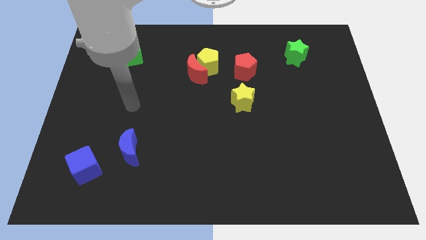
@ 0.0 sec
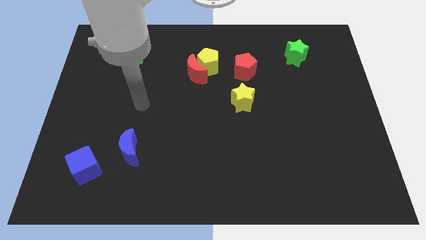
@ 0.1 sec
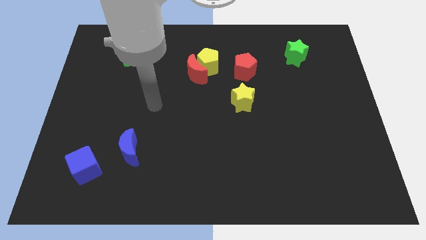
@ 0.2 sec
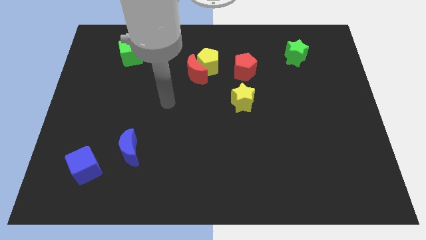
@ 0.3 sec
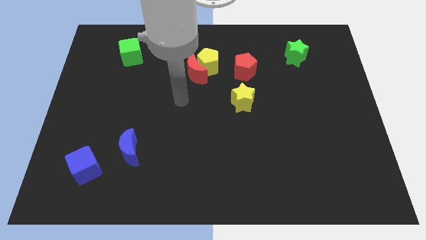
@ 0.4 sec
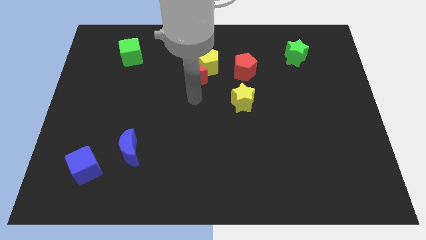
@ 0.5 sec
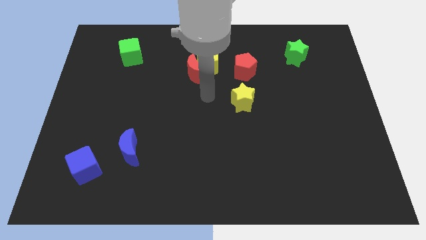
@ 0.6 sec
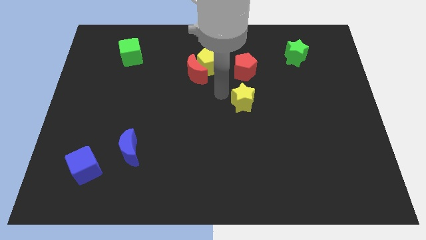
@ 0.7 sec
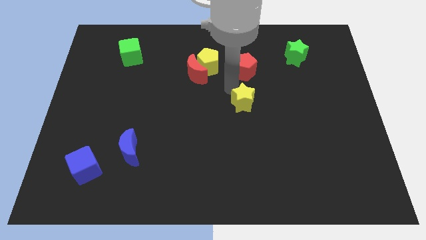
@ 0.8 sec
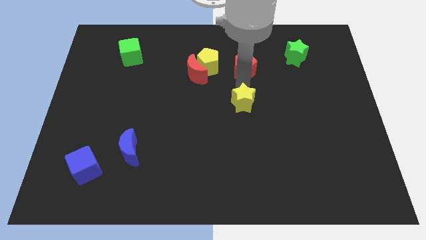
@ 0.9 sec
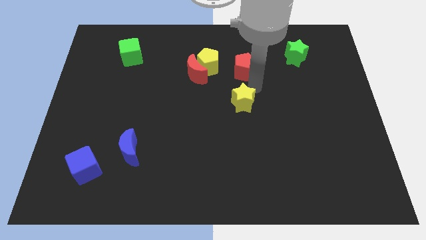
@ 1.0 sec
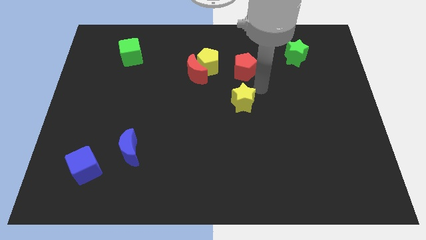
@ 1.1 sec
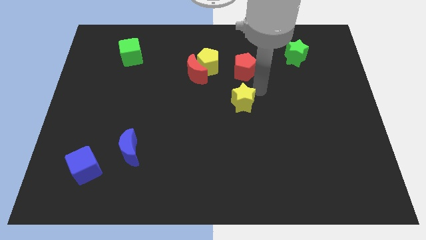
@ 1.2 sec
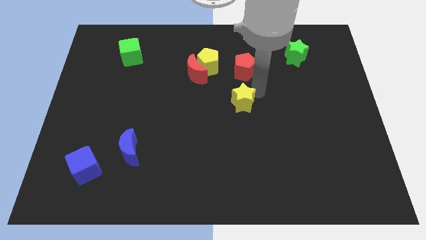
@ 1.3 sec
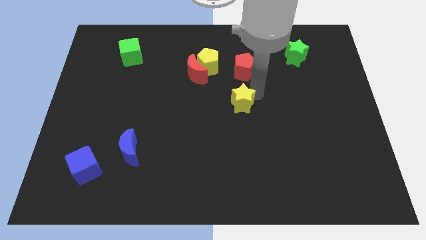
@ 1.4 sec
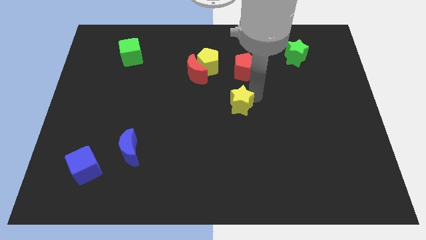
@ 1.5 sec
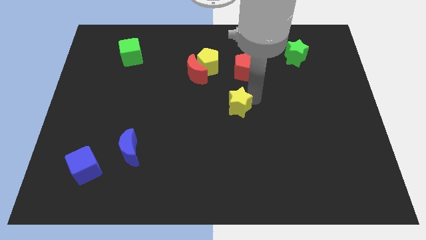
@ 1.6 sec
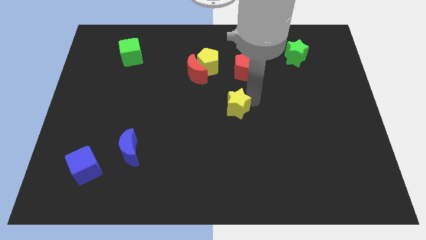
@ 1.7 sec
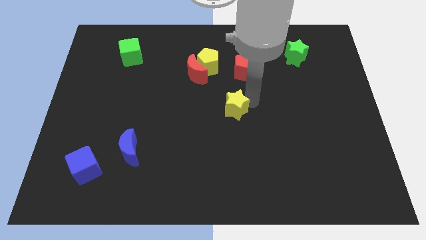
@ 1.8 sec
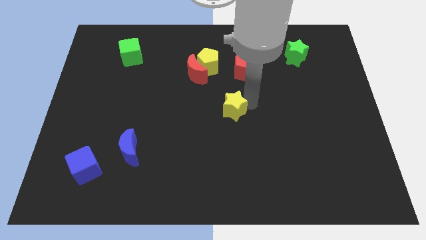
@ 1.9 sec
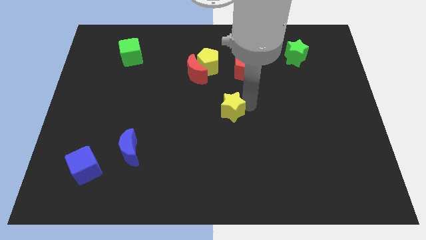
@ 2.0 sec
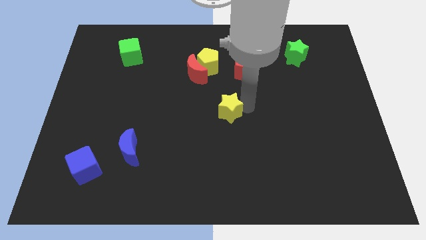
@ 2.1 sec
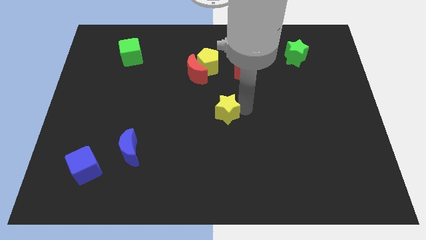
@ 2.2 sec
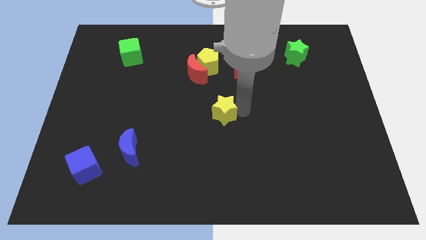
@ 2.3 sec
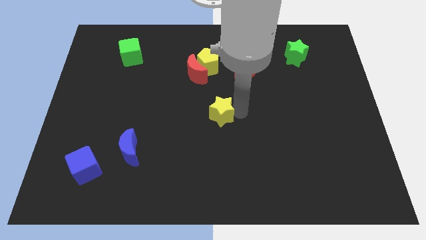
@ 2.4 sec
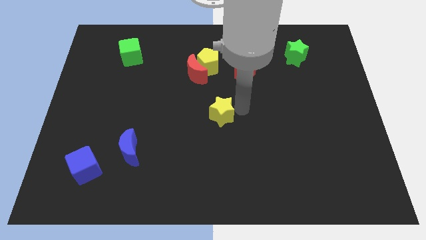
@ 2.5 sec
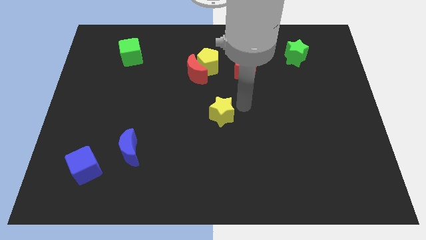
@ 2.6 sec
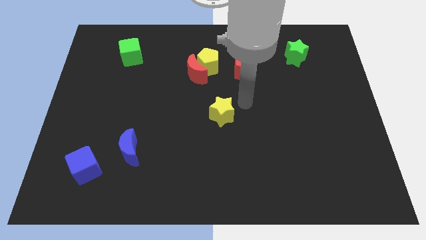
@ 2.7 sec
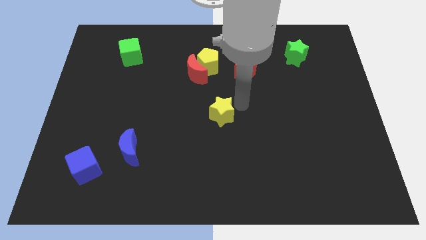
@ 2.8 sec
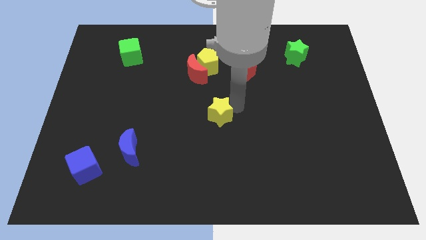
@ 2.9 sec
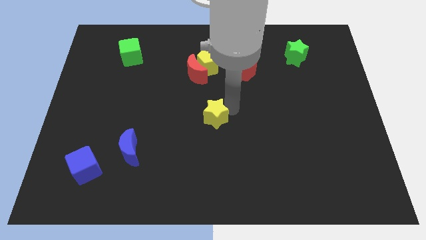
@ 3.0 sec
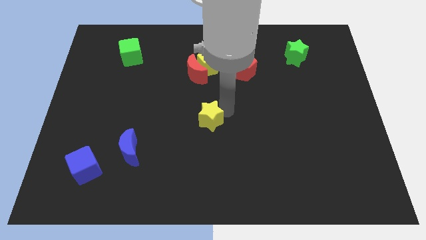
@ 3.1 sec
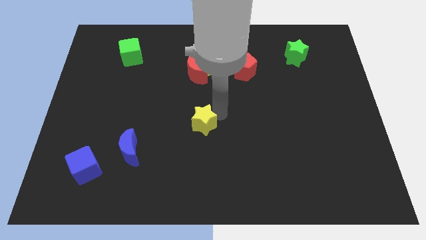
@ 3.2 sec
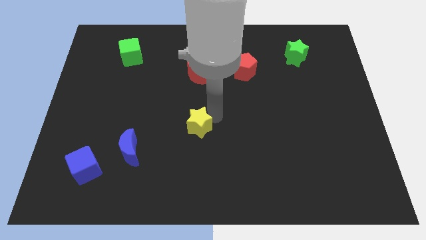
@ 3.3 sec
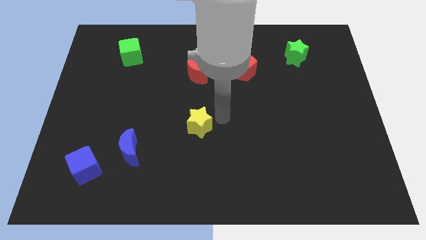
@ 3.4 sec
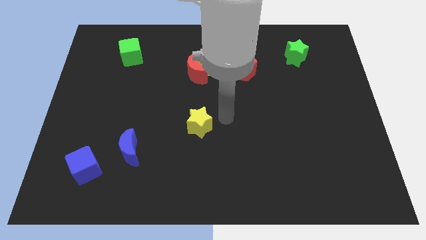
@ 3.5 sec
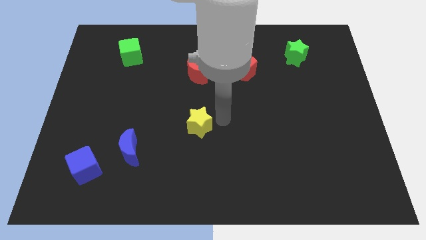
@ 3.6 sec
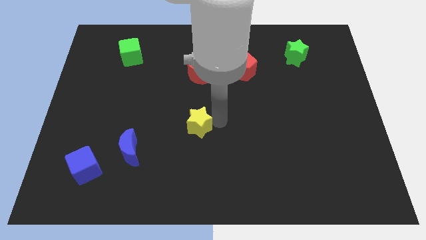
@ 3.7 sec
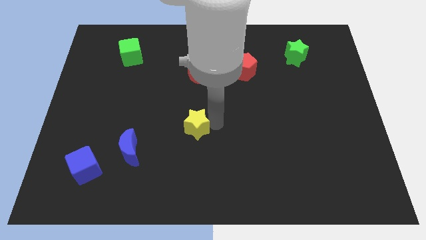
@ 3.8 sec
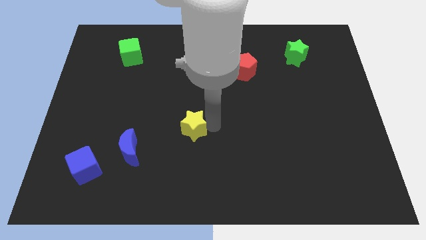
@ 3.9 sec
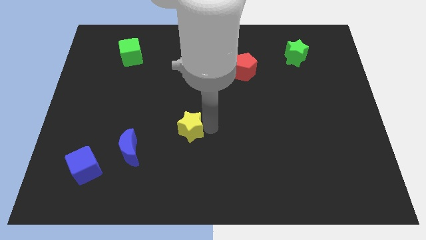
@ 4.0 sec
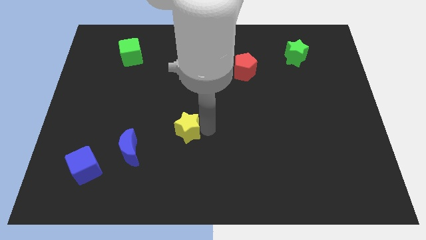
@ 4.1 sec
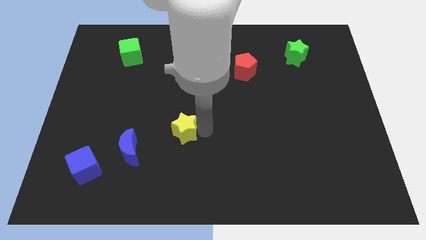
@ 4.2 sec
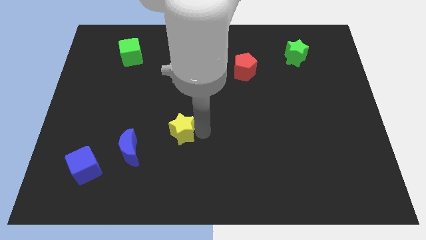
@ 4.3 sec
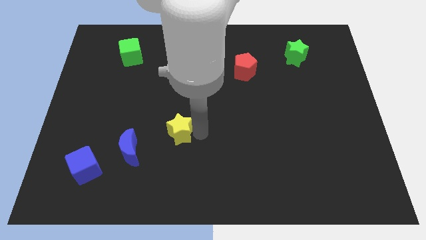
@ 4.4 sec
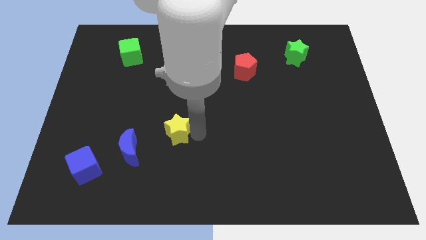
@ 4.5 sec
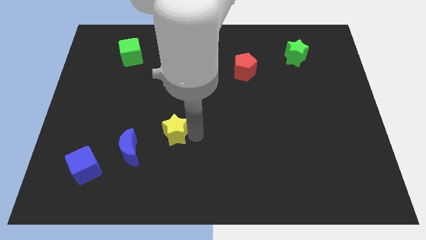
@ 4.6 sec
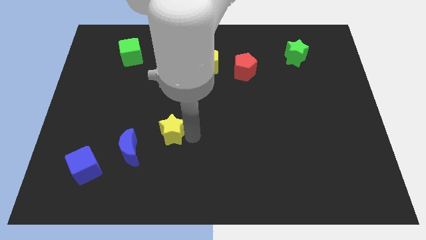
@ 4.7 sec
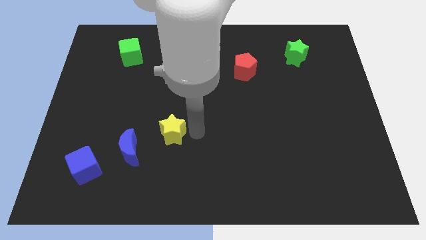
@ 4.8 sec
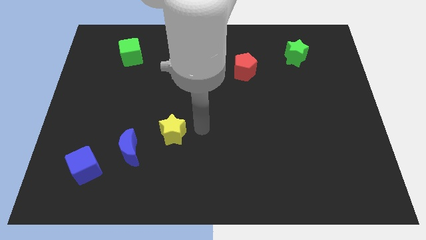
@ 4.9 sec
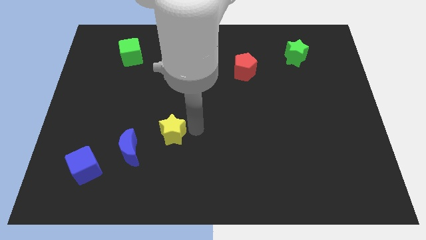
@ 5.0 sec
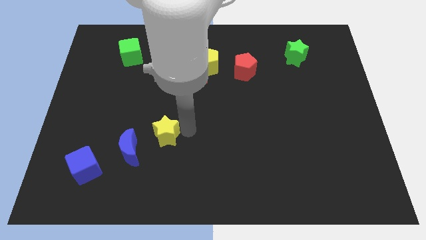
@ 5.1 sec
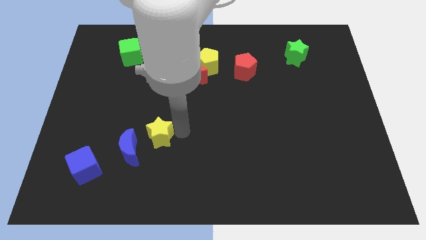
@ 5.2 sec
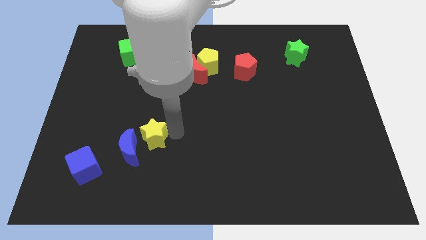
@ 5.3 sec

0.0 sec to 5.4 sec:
move the yellow star towards the blue moon

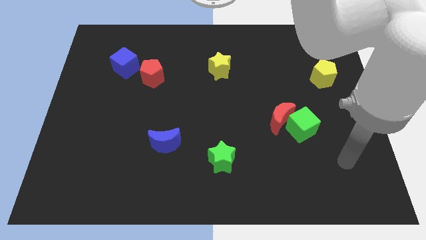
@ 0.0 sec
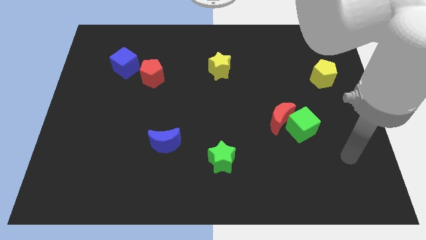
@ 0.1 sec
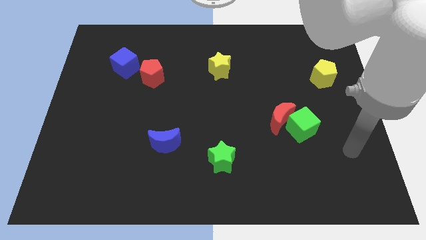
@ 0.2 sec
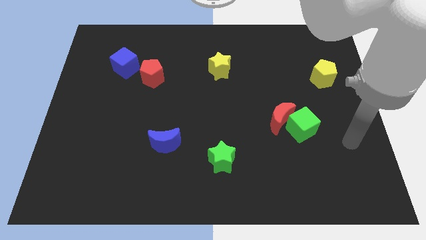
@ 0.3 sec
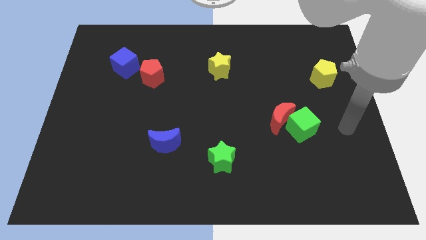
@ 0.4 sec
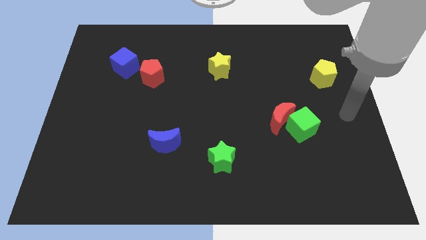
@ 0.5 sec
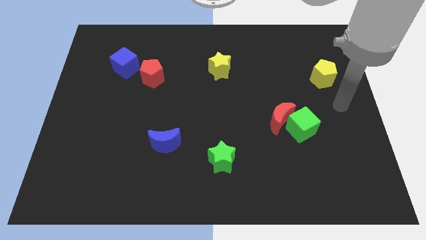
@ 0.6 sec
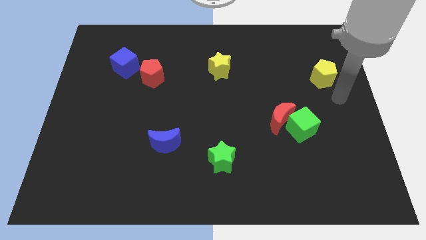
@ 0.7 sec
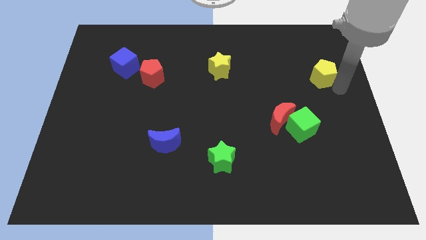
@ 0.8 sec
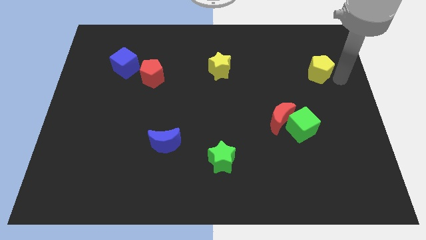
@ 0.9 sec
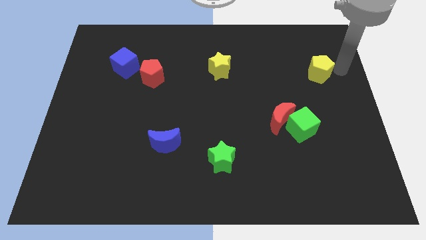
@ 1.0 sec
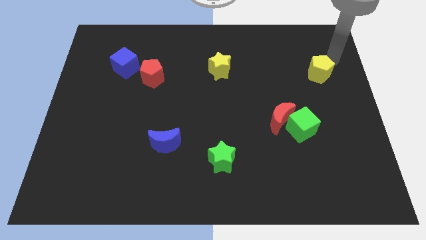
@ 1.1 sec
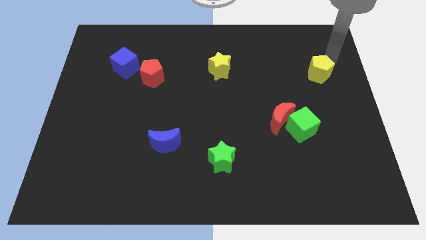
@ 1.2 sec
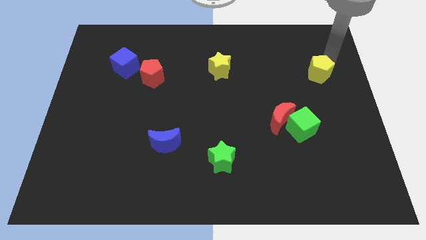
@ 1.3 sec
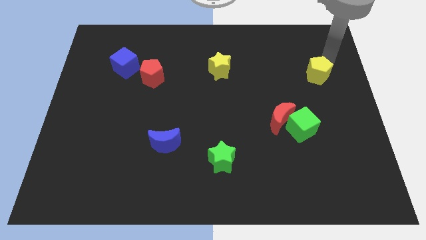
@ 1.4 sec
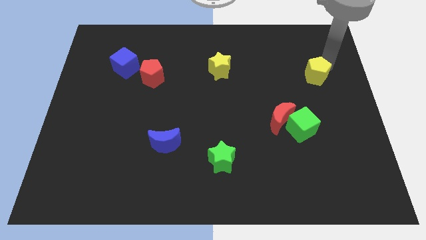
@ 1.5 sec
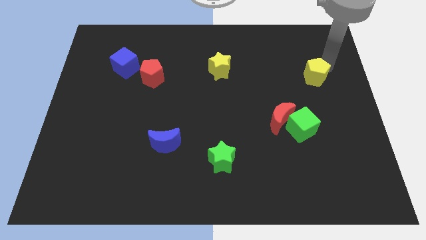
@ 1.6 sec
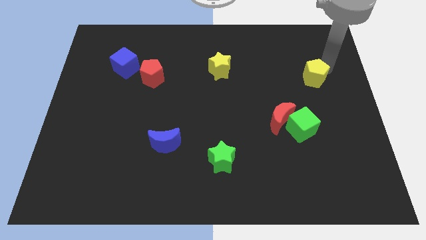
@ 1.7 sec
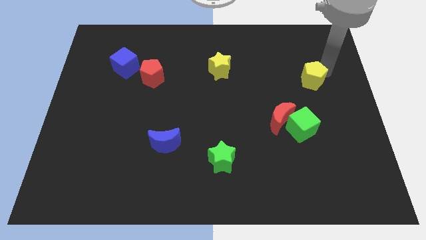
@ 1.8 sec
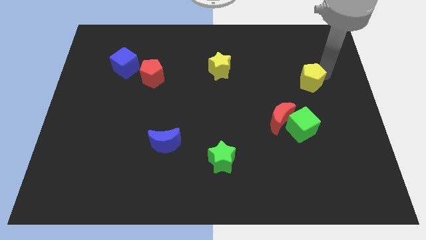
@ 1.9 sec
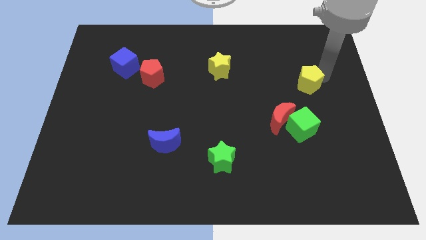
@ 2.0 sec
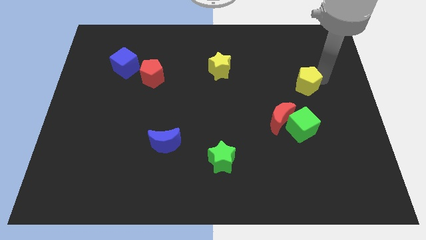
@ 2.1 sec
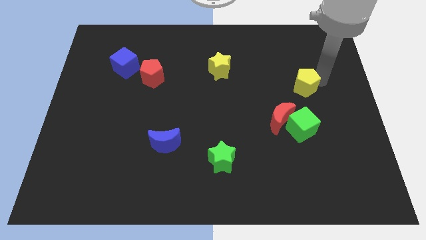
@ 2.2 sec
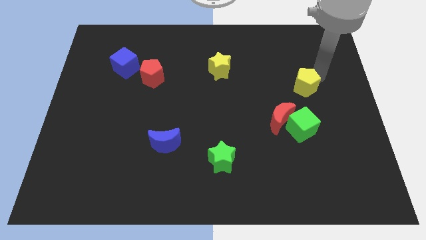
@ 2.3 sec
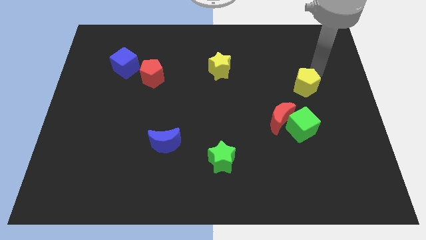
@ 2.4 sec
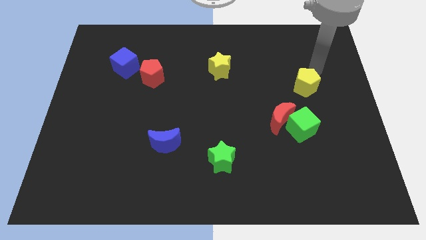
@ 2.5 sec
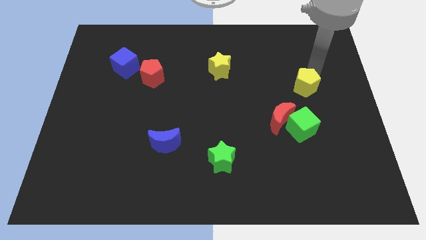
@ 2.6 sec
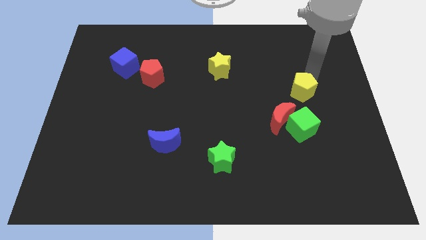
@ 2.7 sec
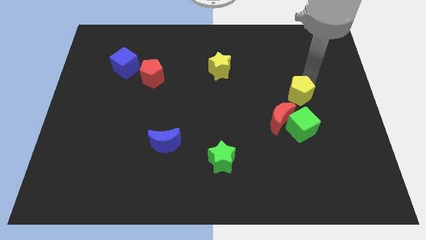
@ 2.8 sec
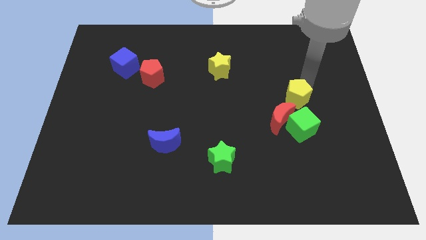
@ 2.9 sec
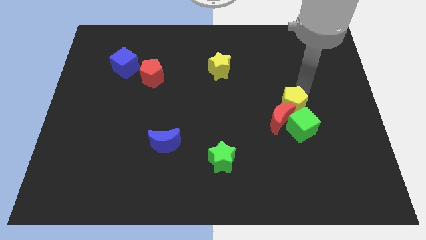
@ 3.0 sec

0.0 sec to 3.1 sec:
slide the yellow pentagon close to the red moon
